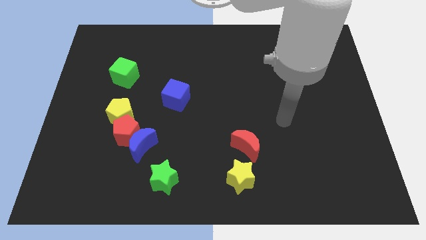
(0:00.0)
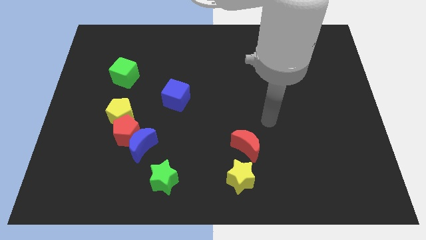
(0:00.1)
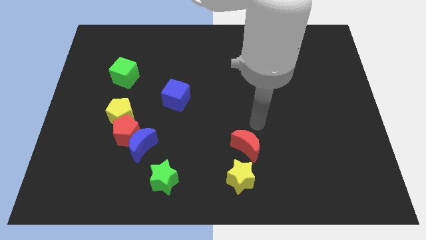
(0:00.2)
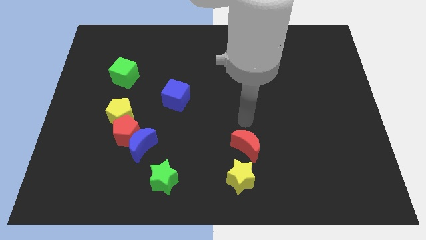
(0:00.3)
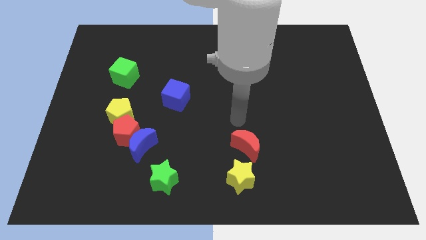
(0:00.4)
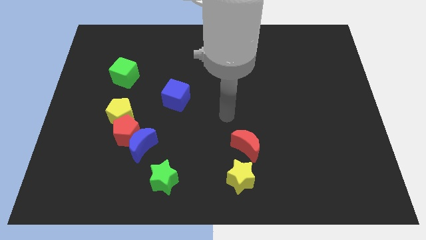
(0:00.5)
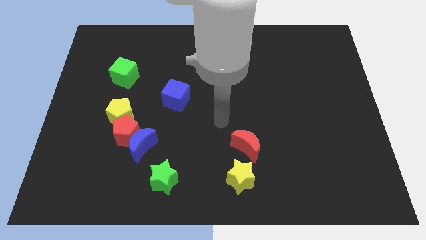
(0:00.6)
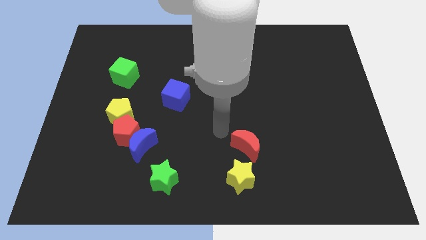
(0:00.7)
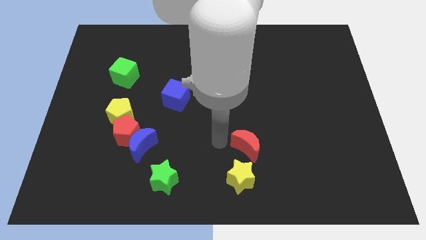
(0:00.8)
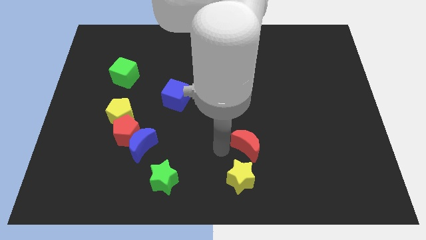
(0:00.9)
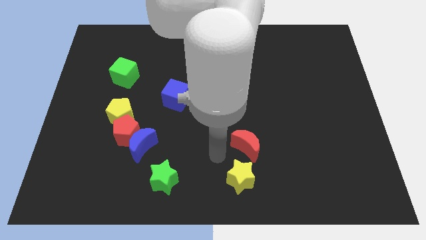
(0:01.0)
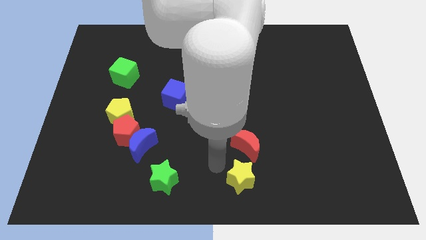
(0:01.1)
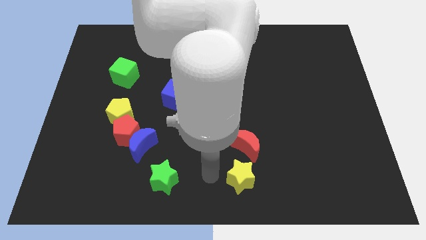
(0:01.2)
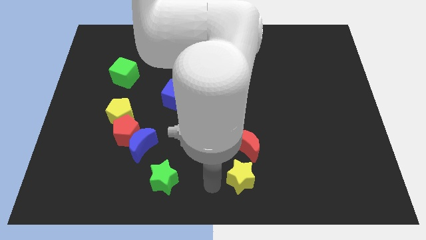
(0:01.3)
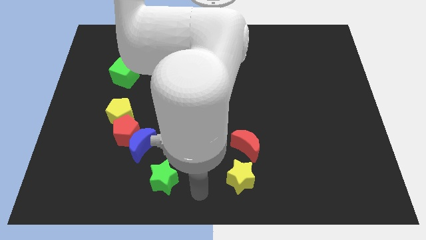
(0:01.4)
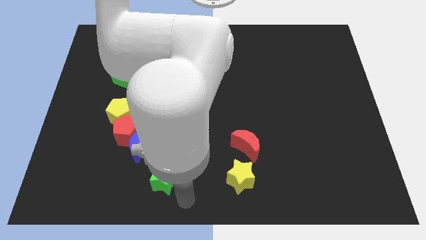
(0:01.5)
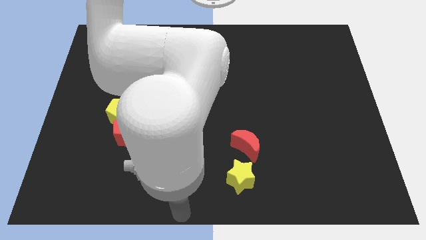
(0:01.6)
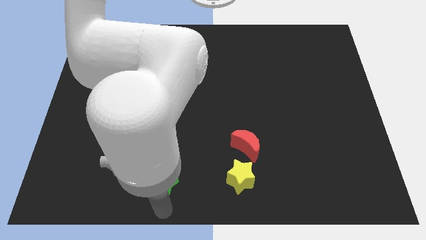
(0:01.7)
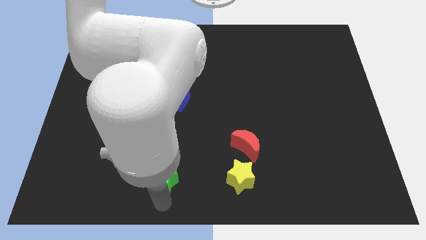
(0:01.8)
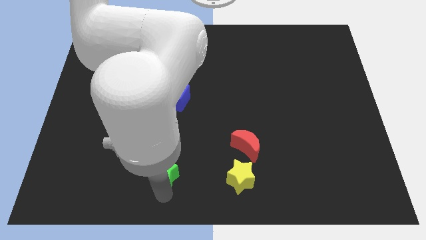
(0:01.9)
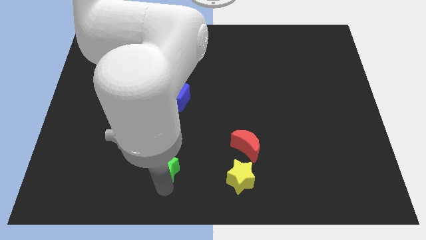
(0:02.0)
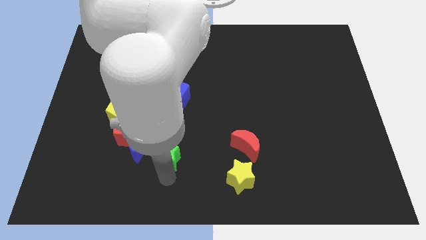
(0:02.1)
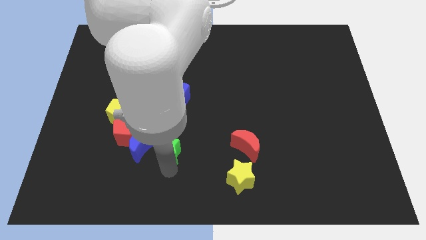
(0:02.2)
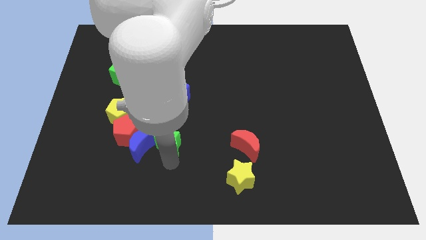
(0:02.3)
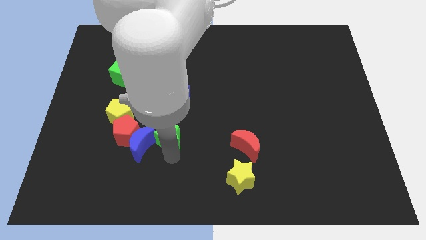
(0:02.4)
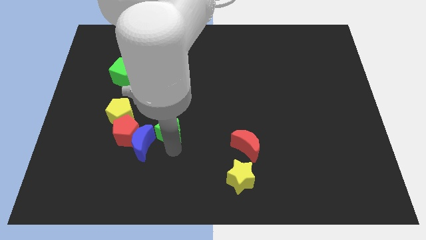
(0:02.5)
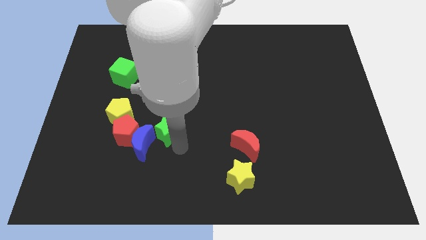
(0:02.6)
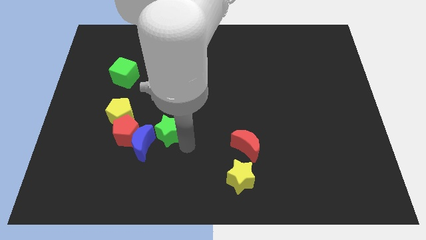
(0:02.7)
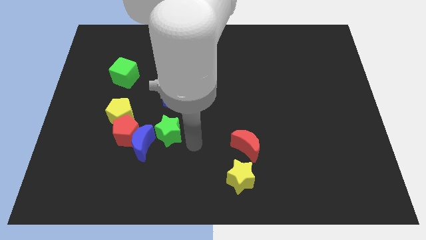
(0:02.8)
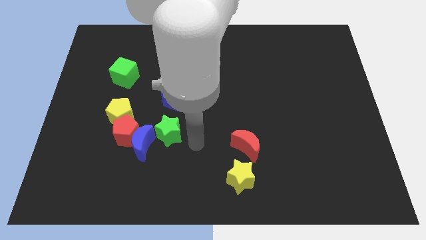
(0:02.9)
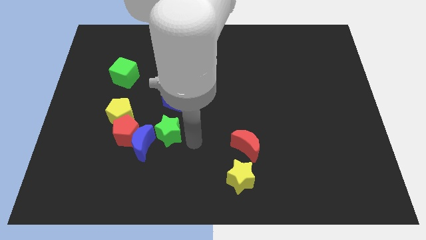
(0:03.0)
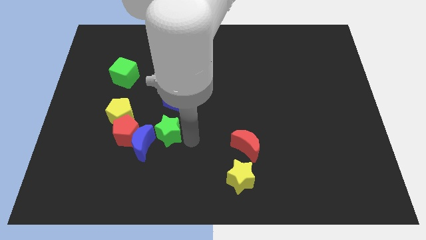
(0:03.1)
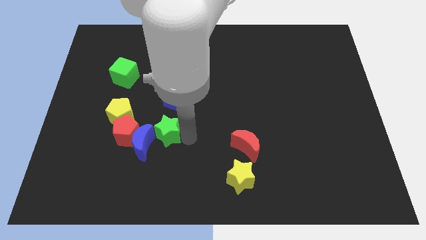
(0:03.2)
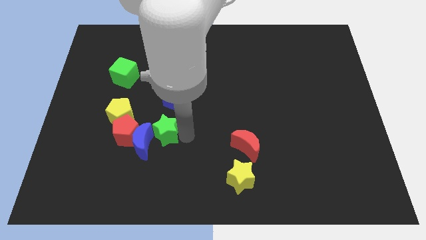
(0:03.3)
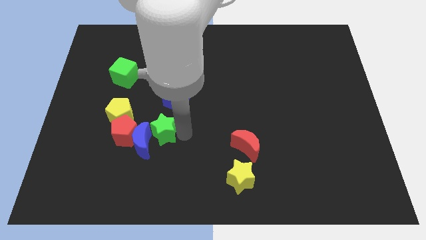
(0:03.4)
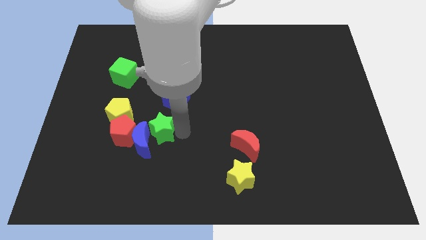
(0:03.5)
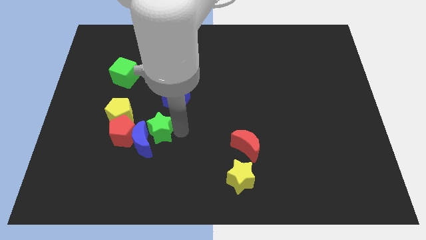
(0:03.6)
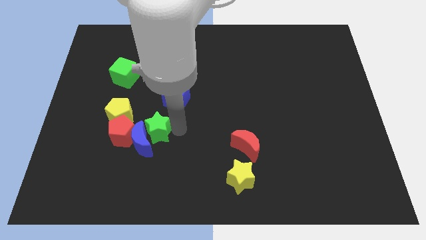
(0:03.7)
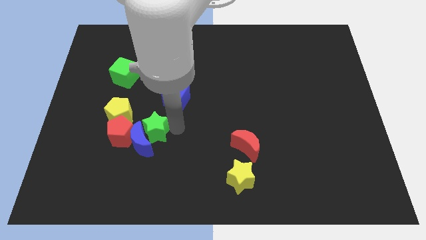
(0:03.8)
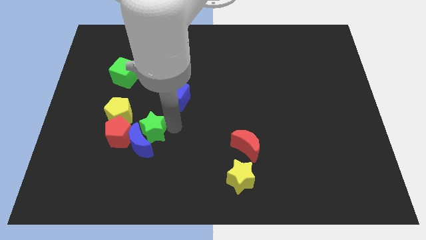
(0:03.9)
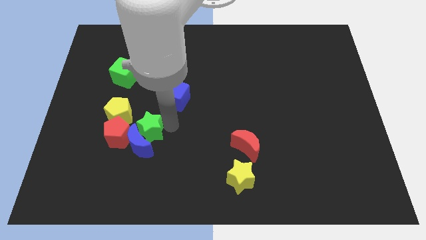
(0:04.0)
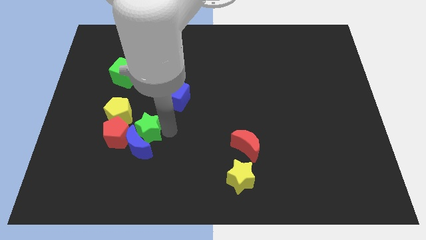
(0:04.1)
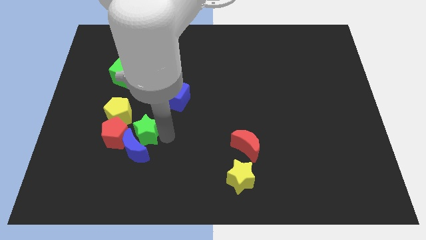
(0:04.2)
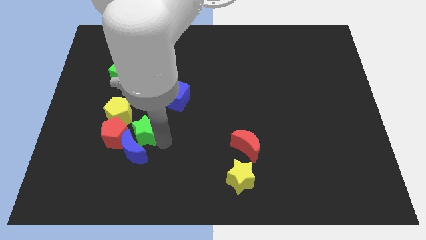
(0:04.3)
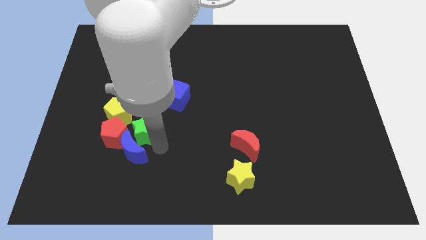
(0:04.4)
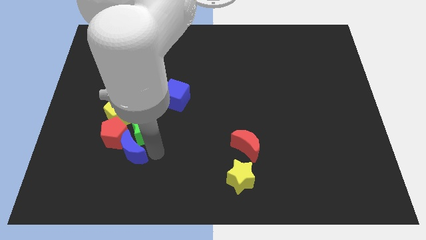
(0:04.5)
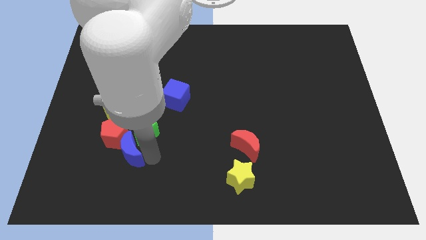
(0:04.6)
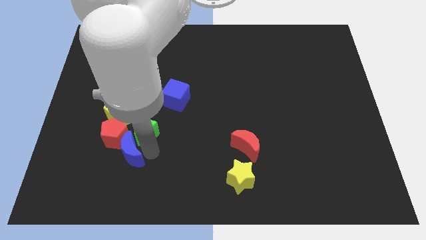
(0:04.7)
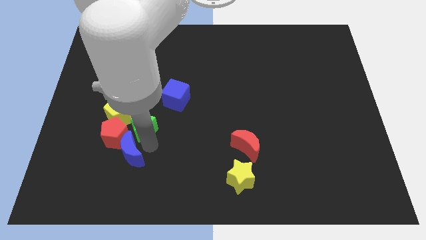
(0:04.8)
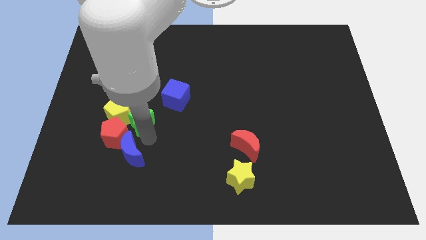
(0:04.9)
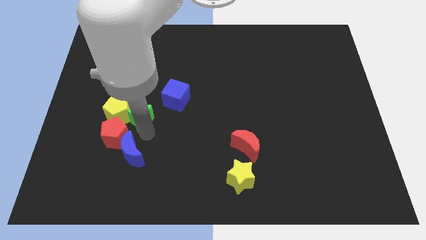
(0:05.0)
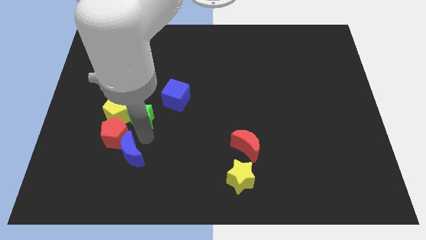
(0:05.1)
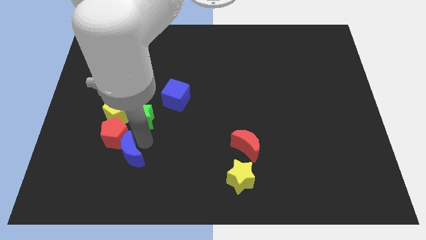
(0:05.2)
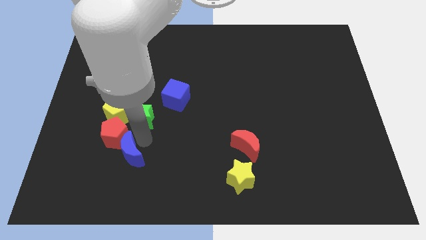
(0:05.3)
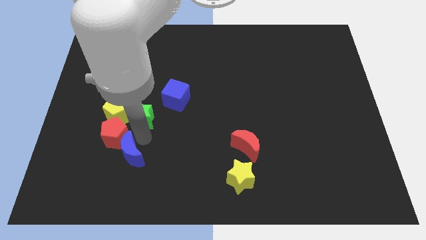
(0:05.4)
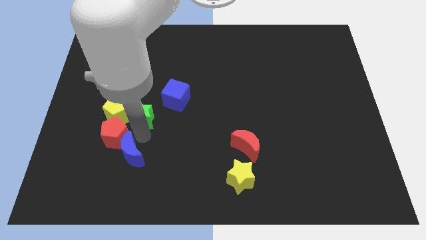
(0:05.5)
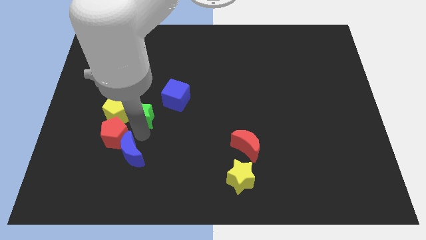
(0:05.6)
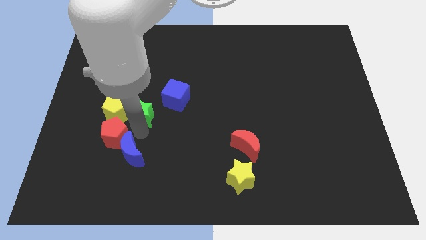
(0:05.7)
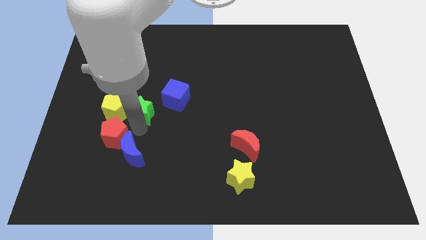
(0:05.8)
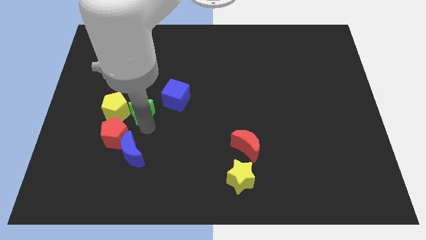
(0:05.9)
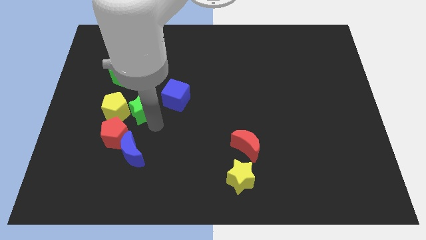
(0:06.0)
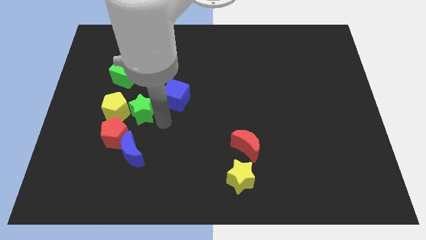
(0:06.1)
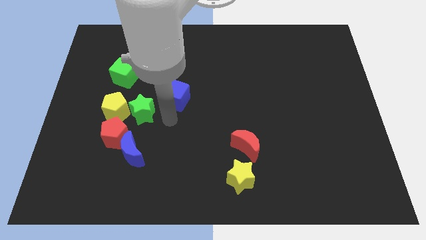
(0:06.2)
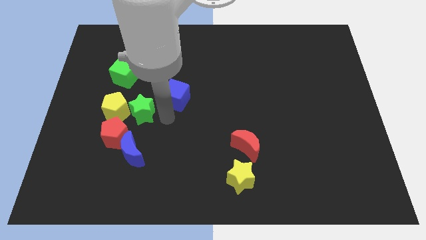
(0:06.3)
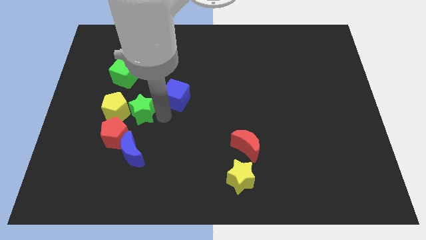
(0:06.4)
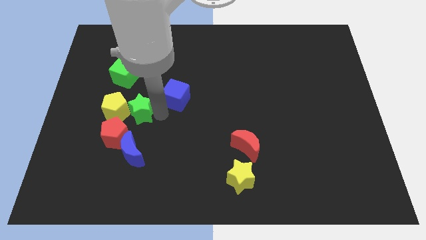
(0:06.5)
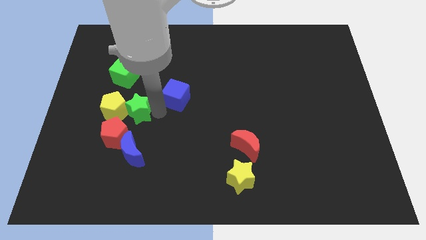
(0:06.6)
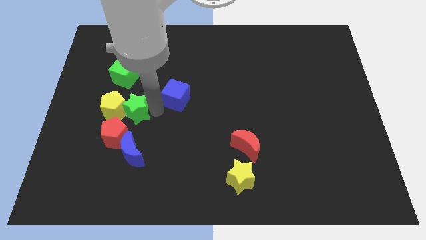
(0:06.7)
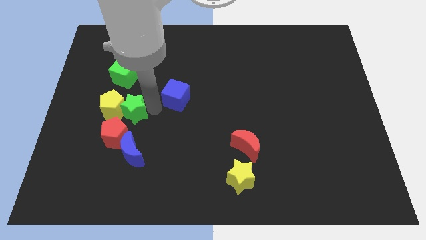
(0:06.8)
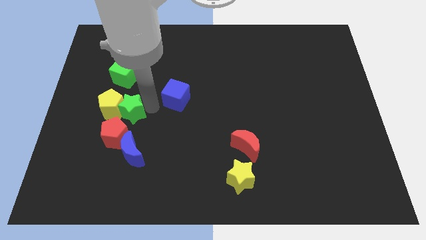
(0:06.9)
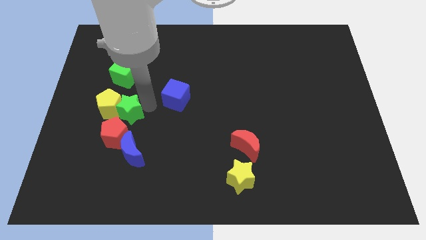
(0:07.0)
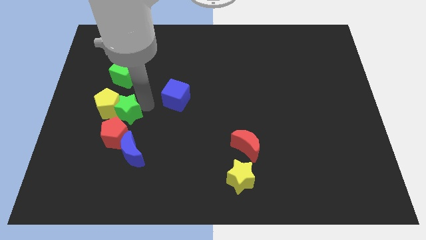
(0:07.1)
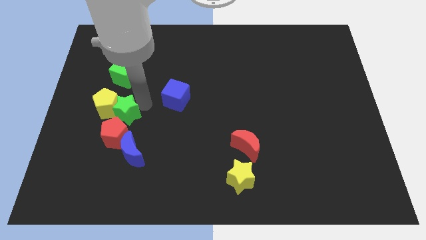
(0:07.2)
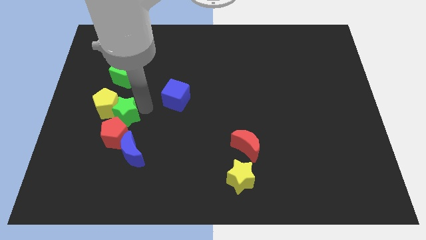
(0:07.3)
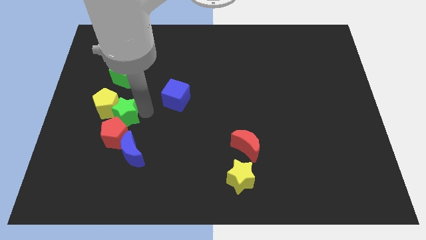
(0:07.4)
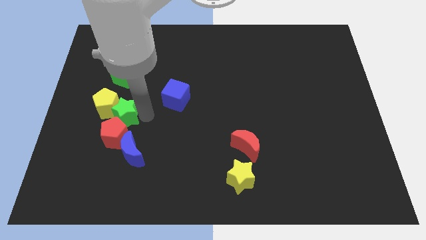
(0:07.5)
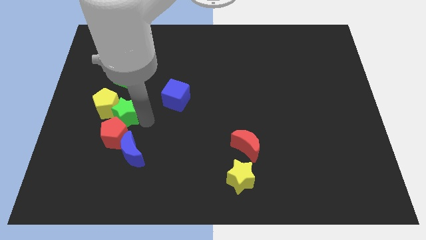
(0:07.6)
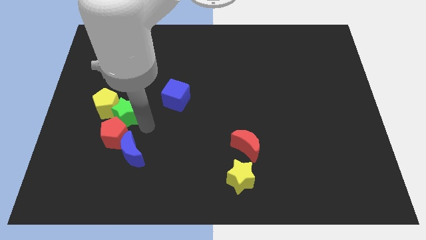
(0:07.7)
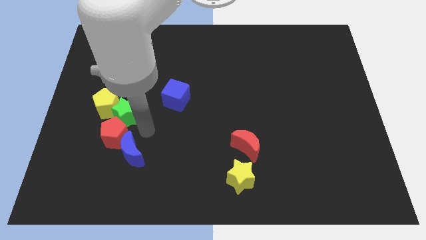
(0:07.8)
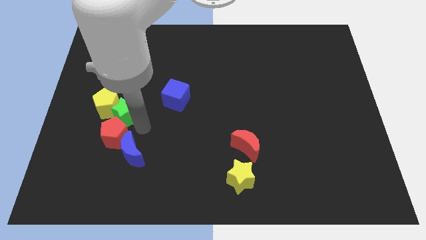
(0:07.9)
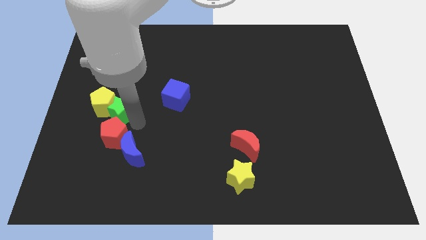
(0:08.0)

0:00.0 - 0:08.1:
push the green star to the top left side of the red pentagon
